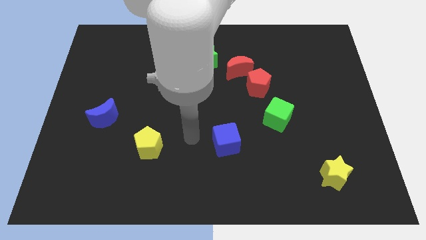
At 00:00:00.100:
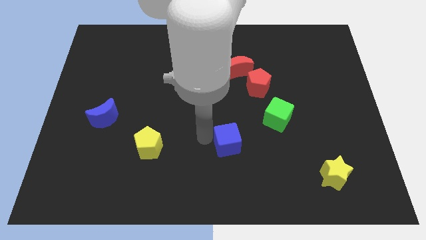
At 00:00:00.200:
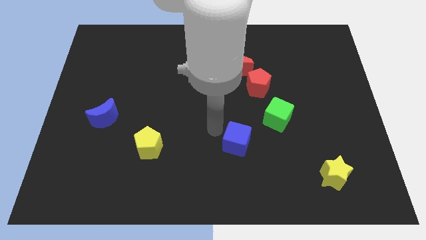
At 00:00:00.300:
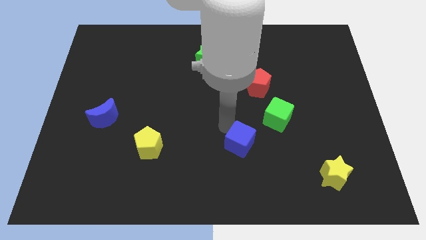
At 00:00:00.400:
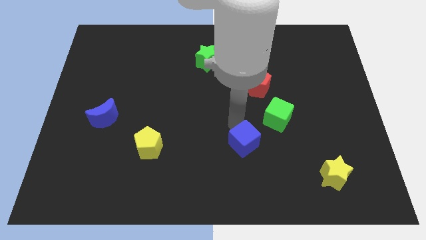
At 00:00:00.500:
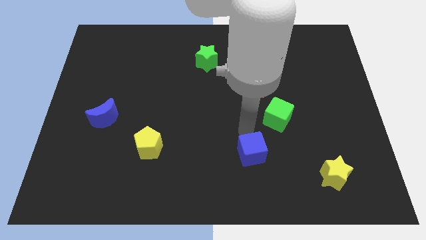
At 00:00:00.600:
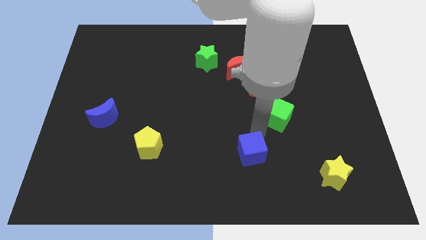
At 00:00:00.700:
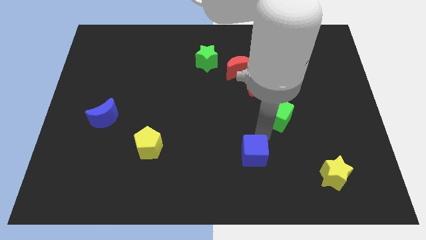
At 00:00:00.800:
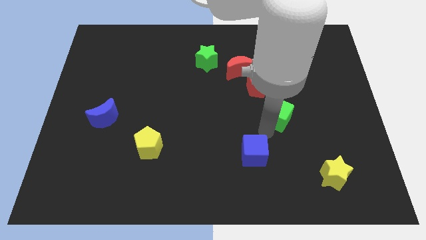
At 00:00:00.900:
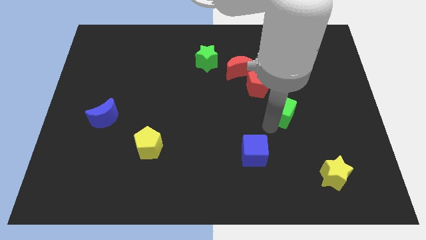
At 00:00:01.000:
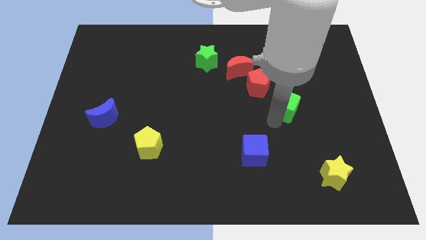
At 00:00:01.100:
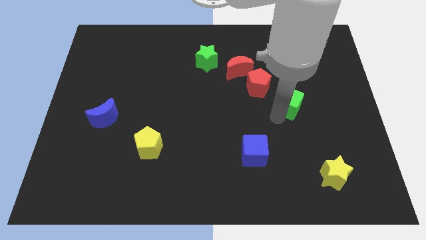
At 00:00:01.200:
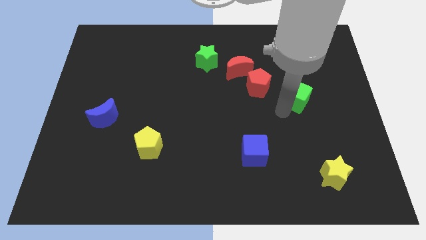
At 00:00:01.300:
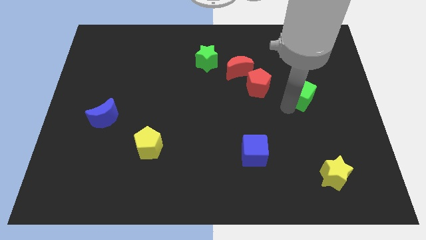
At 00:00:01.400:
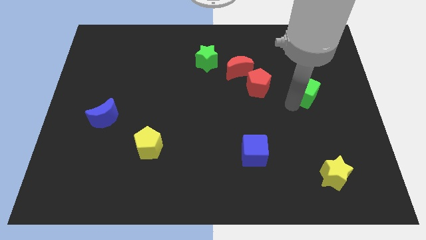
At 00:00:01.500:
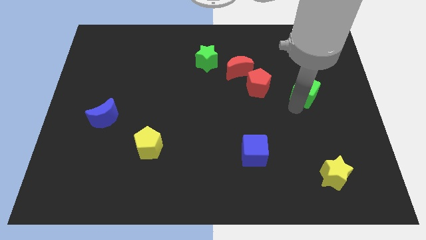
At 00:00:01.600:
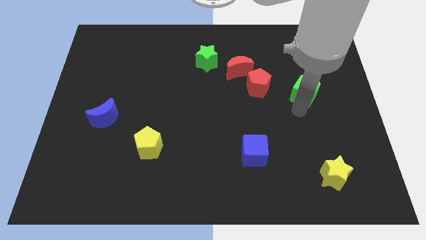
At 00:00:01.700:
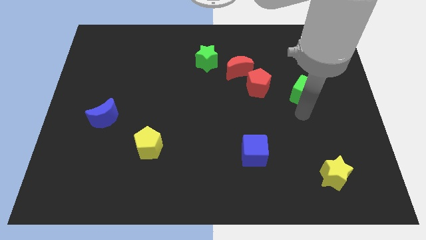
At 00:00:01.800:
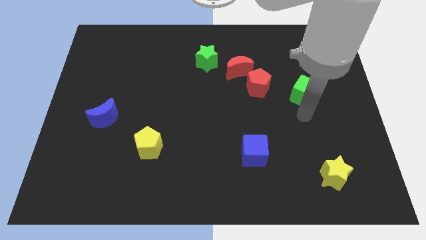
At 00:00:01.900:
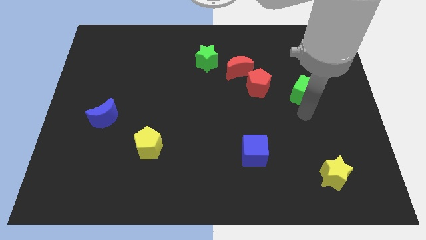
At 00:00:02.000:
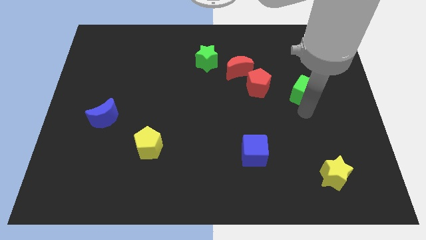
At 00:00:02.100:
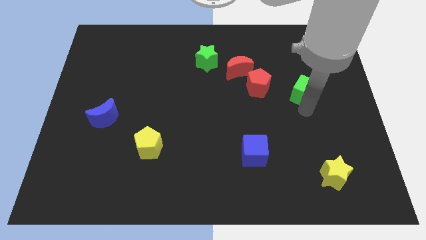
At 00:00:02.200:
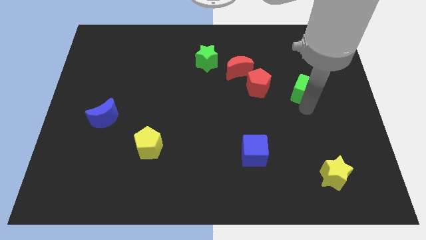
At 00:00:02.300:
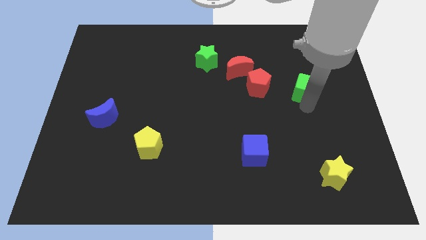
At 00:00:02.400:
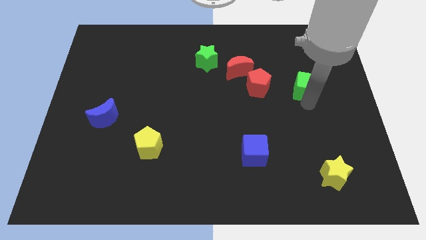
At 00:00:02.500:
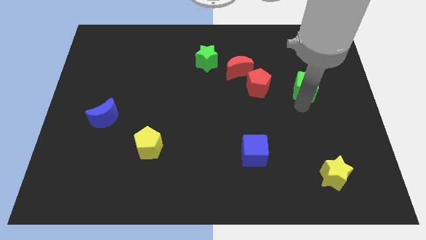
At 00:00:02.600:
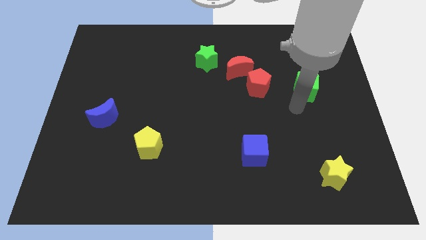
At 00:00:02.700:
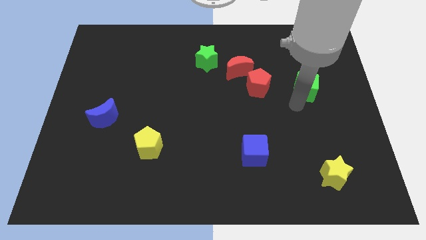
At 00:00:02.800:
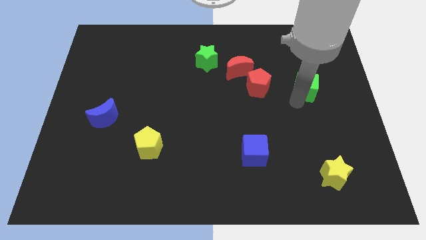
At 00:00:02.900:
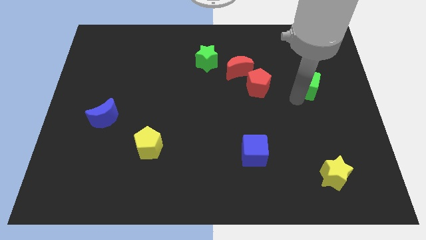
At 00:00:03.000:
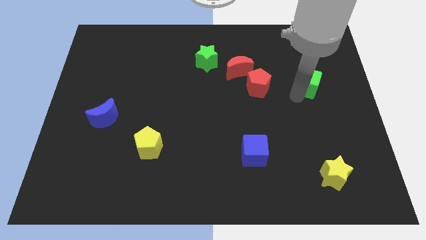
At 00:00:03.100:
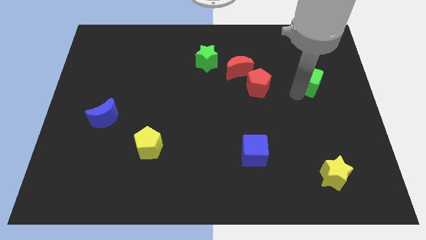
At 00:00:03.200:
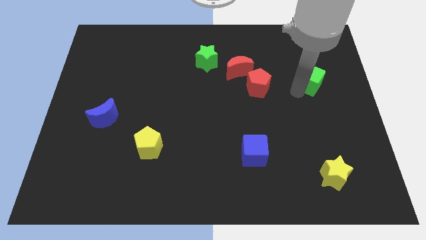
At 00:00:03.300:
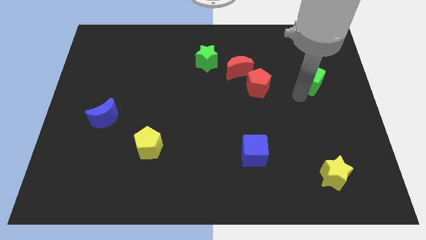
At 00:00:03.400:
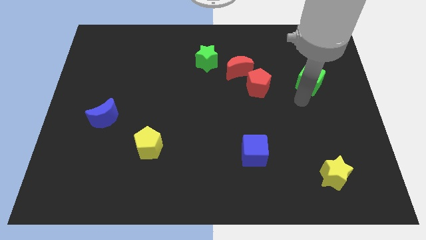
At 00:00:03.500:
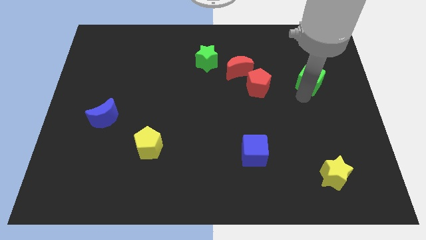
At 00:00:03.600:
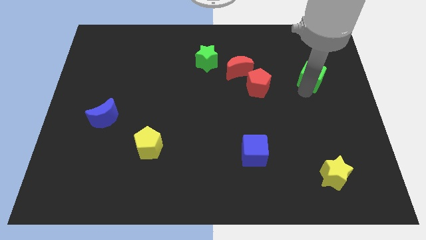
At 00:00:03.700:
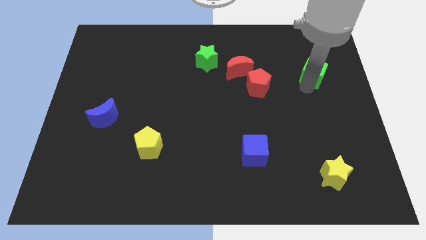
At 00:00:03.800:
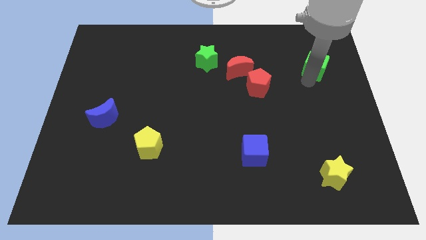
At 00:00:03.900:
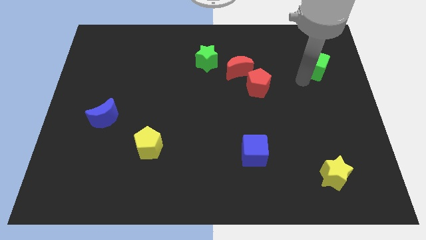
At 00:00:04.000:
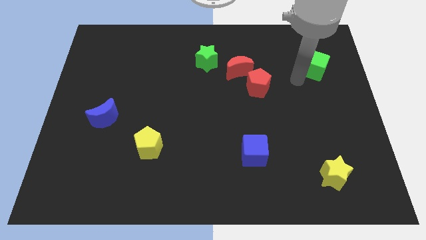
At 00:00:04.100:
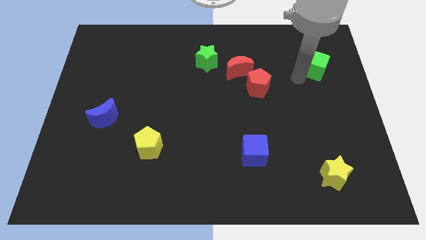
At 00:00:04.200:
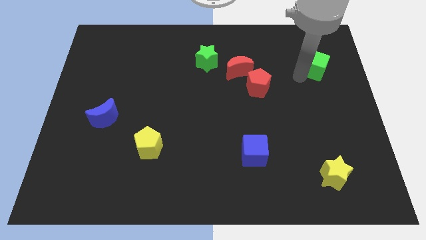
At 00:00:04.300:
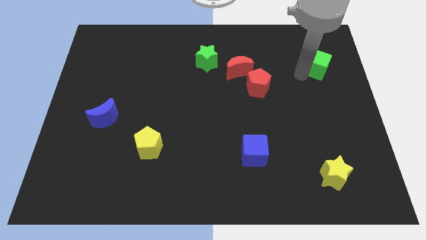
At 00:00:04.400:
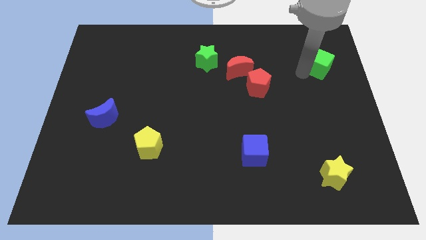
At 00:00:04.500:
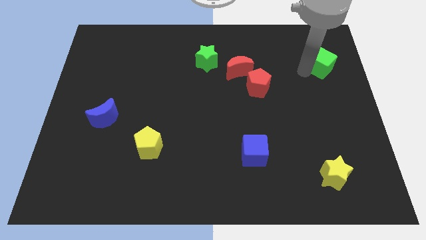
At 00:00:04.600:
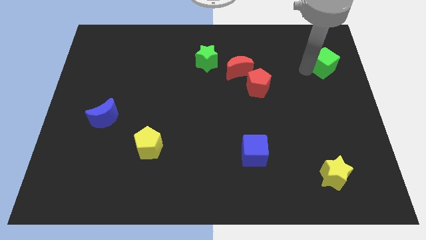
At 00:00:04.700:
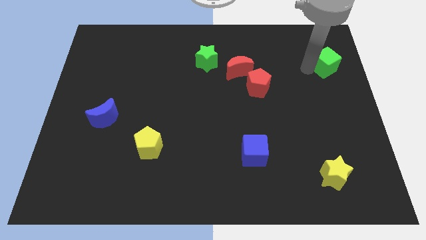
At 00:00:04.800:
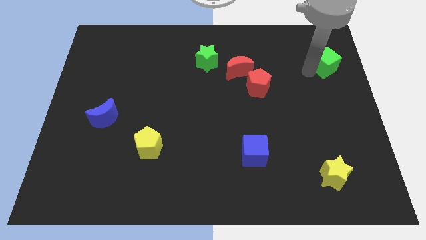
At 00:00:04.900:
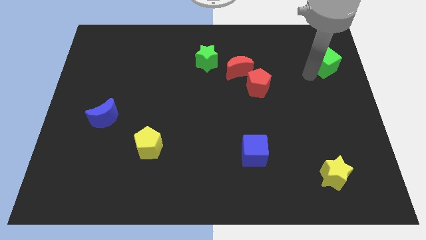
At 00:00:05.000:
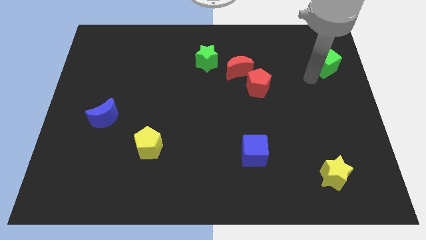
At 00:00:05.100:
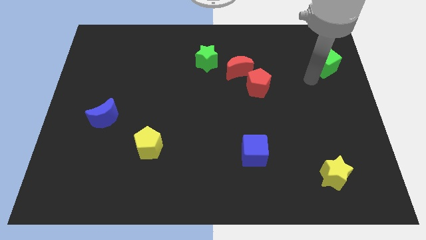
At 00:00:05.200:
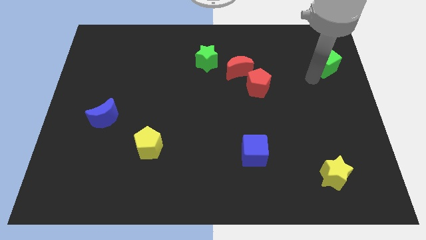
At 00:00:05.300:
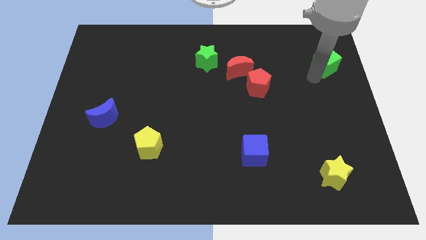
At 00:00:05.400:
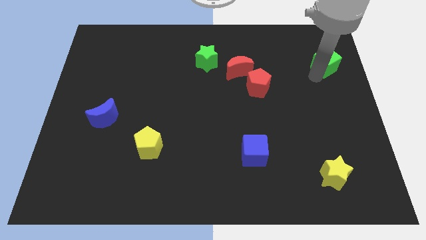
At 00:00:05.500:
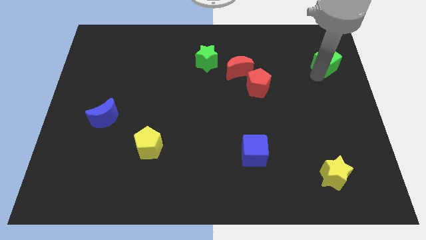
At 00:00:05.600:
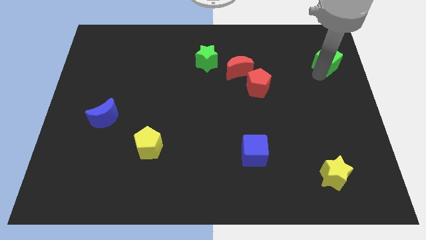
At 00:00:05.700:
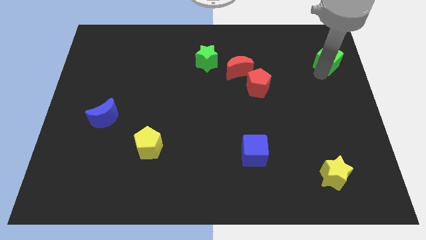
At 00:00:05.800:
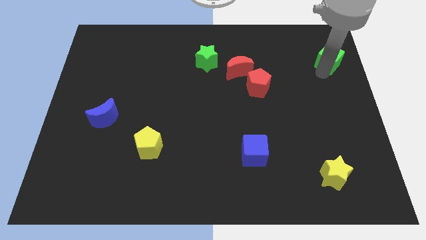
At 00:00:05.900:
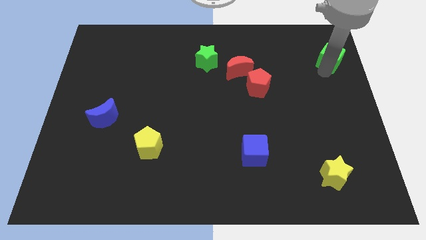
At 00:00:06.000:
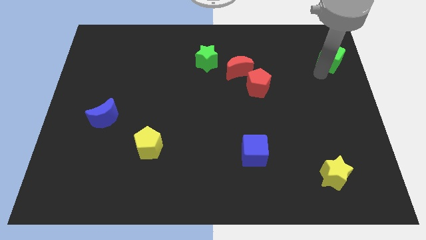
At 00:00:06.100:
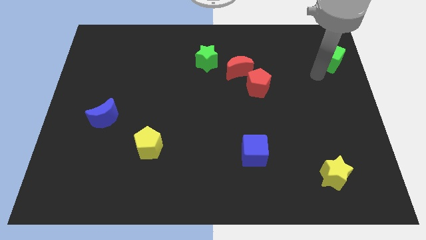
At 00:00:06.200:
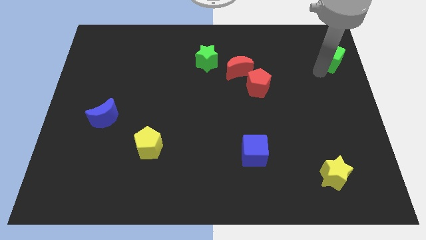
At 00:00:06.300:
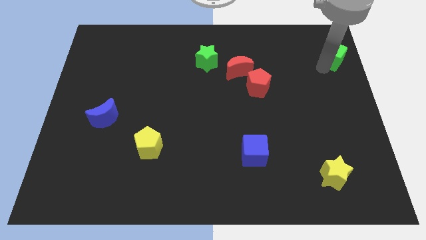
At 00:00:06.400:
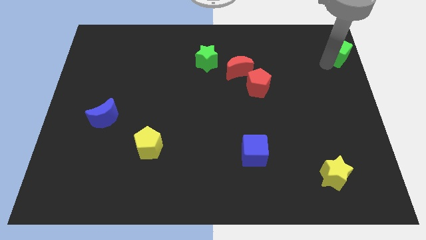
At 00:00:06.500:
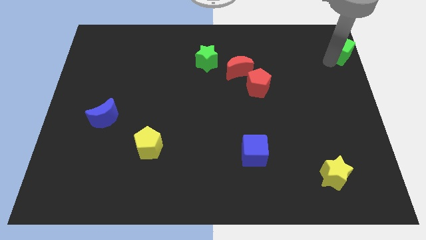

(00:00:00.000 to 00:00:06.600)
move the green cube to the top right corner
